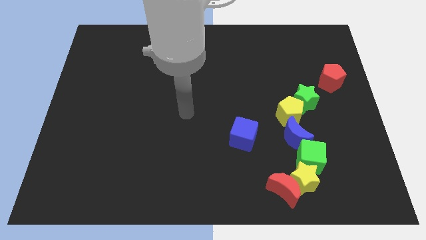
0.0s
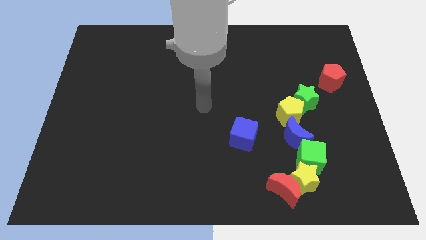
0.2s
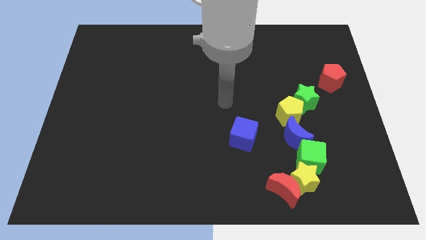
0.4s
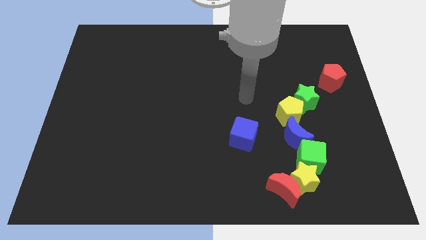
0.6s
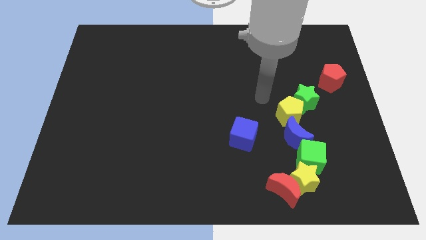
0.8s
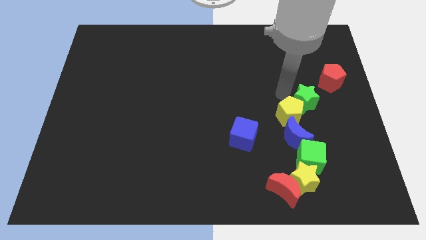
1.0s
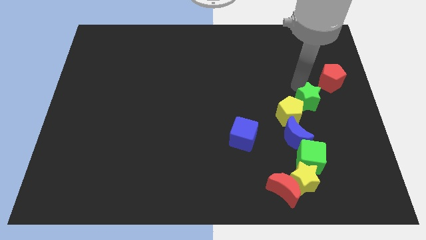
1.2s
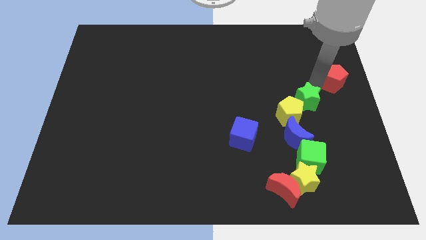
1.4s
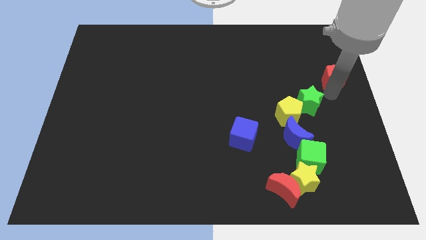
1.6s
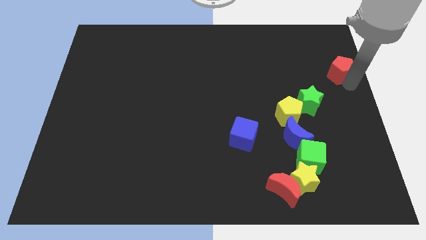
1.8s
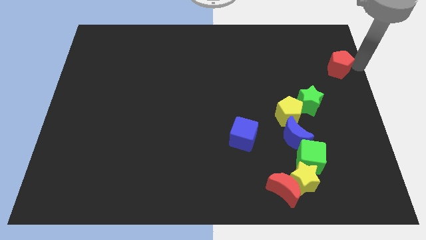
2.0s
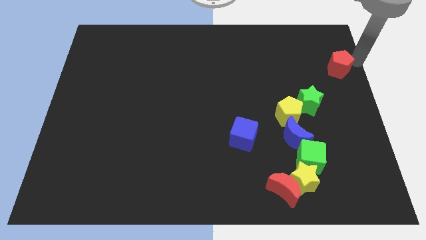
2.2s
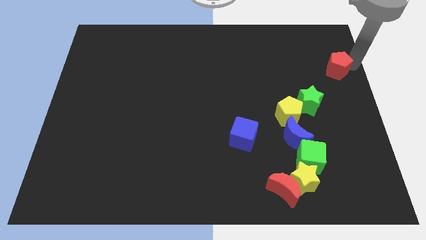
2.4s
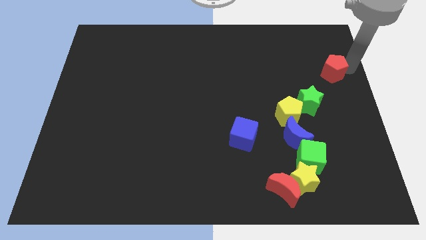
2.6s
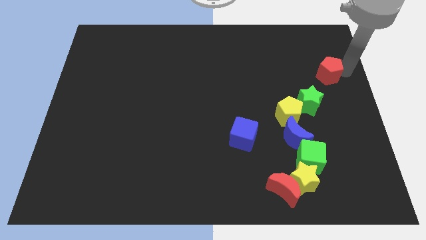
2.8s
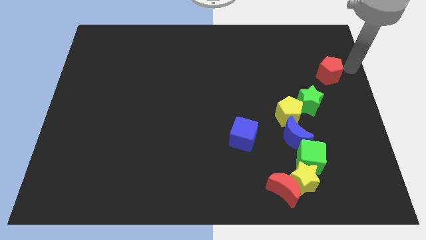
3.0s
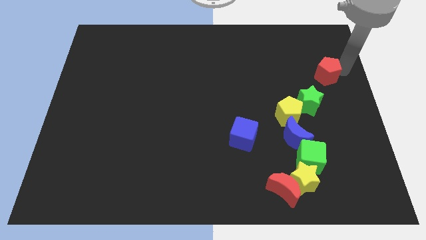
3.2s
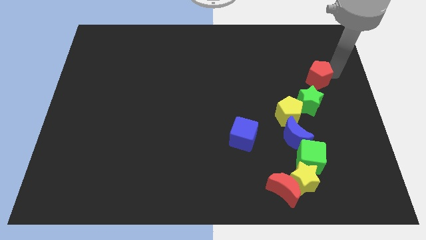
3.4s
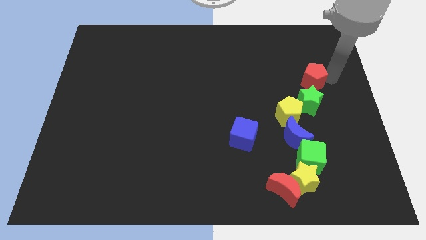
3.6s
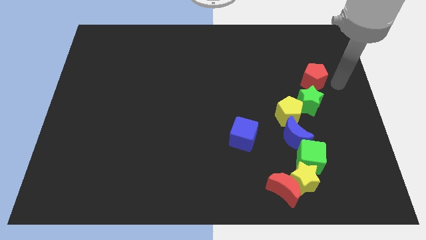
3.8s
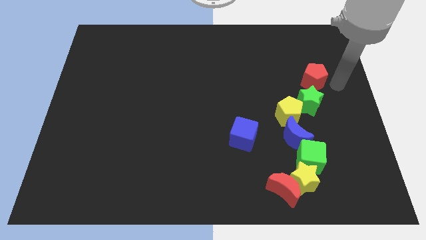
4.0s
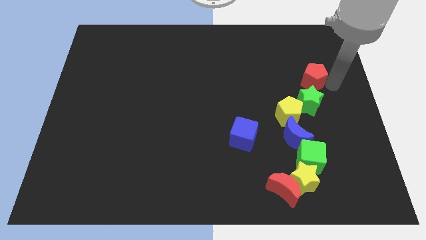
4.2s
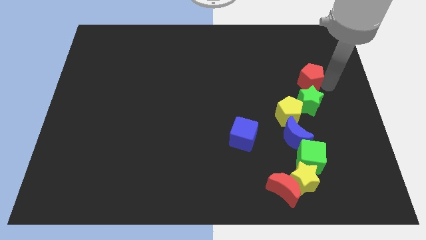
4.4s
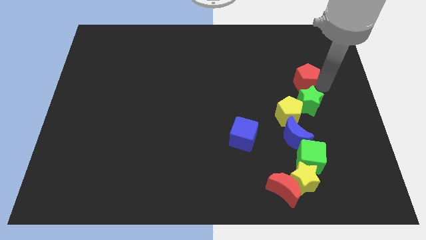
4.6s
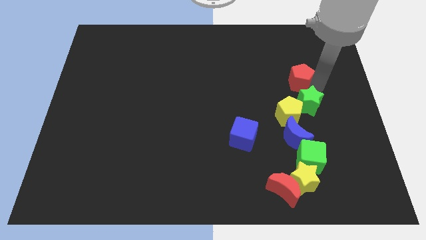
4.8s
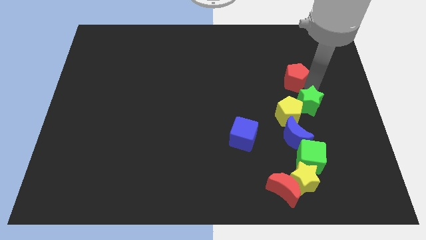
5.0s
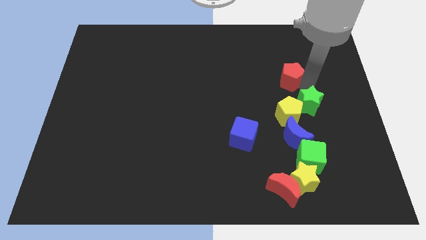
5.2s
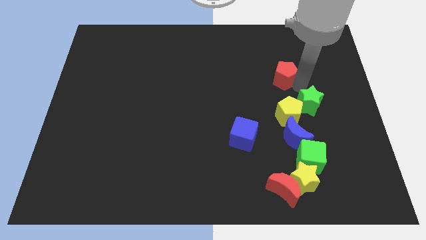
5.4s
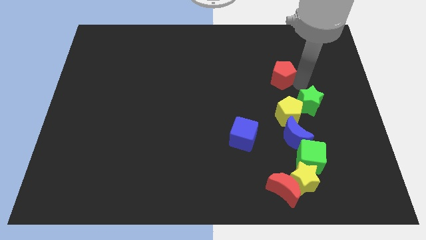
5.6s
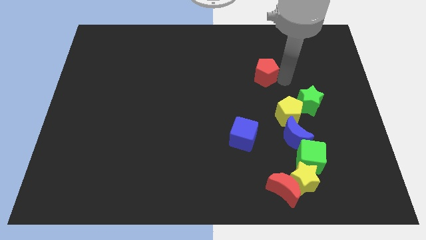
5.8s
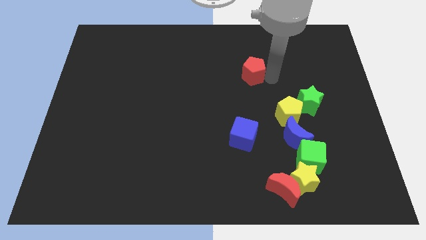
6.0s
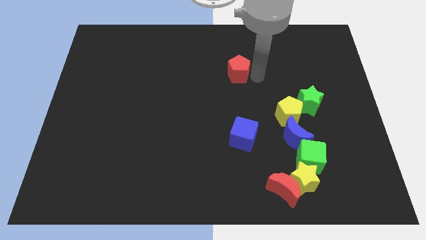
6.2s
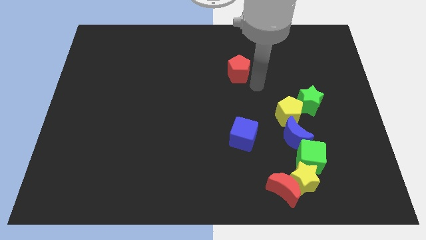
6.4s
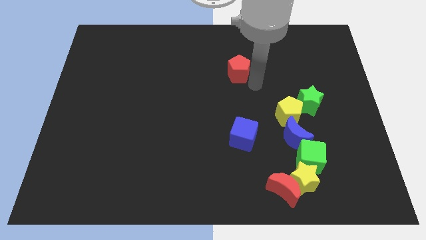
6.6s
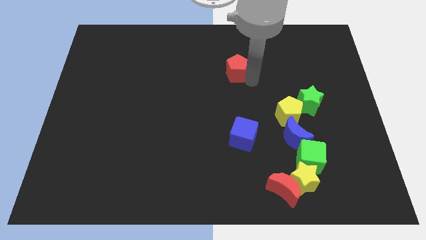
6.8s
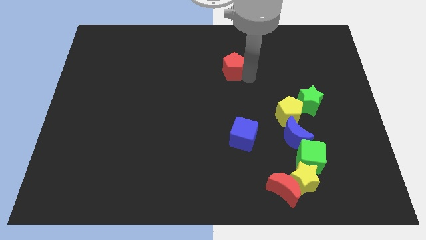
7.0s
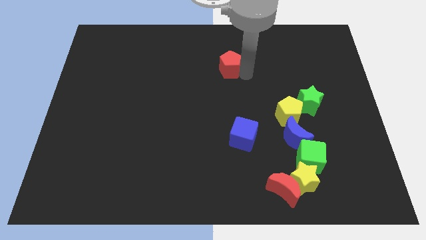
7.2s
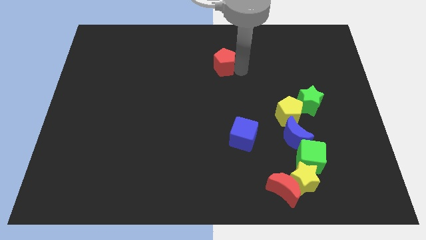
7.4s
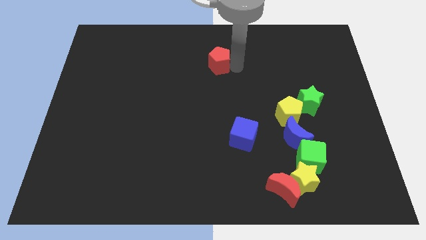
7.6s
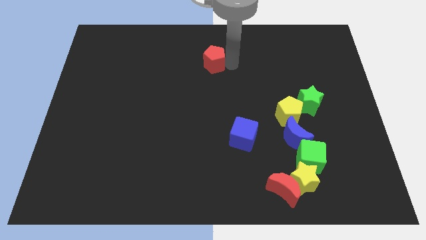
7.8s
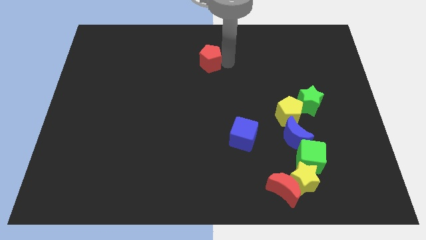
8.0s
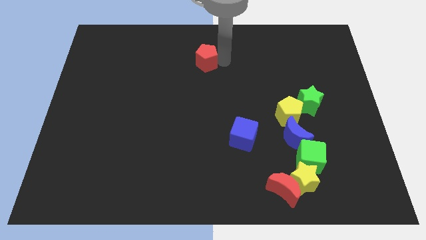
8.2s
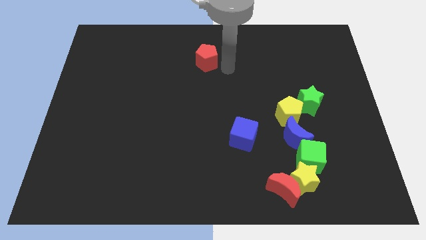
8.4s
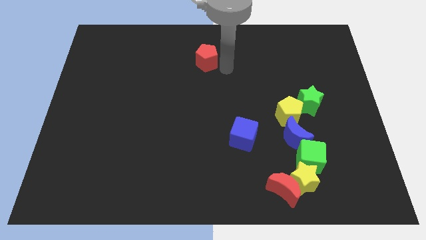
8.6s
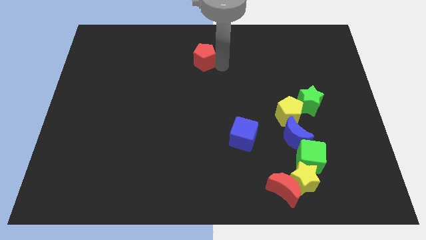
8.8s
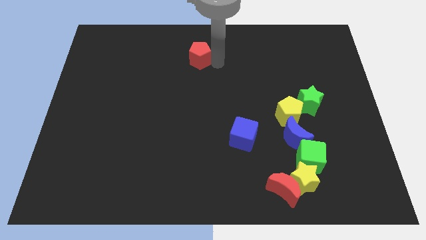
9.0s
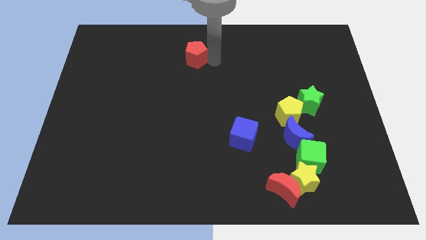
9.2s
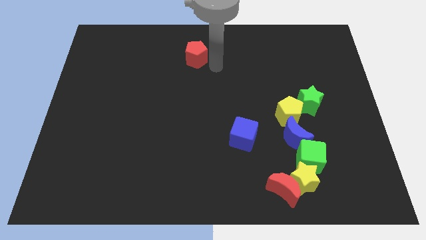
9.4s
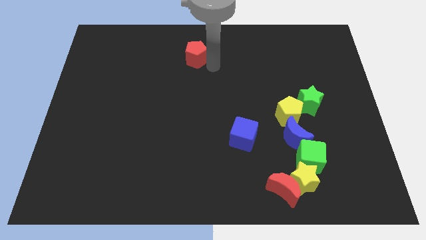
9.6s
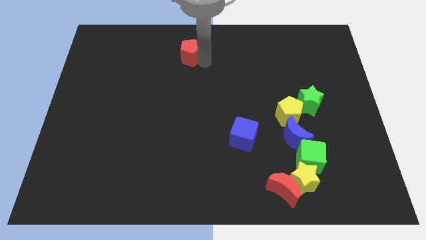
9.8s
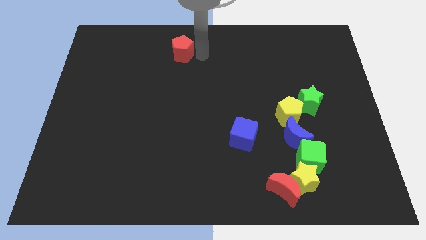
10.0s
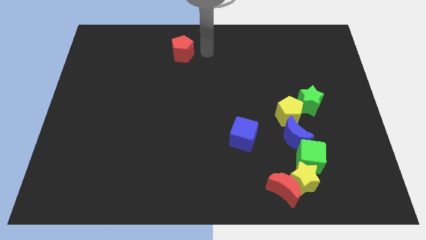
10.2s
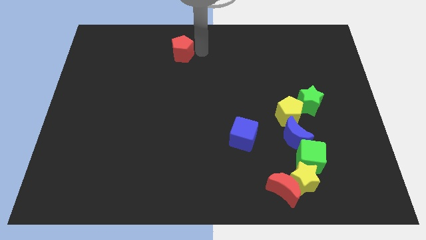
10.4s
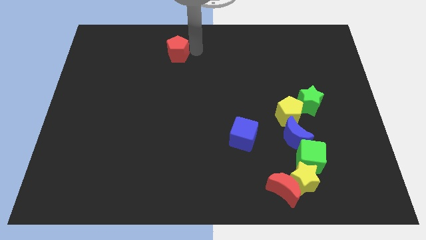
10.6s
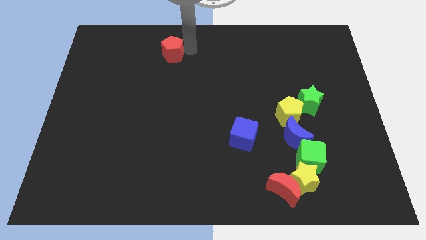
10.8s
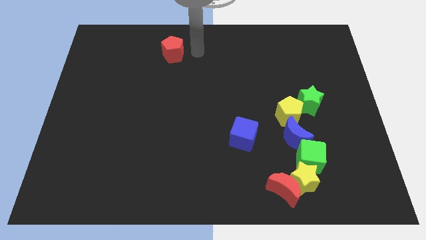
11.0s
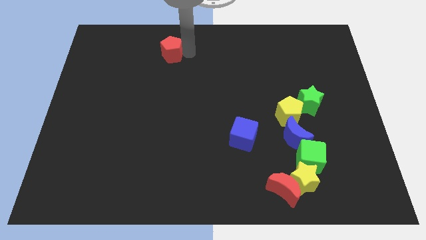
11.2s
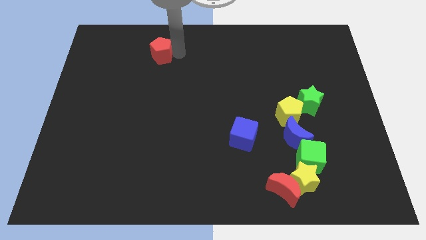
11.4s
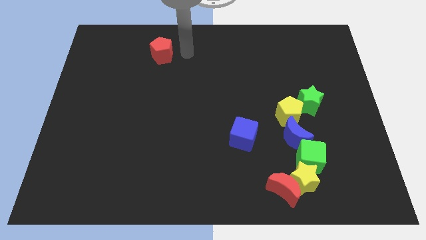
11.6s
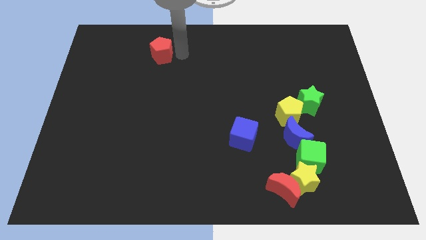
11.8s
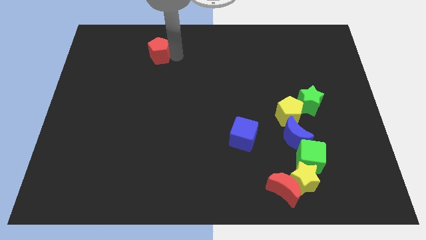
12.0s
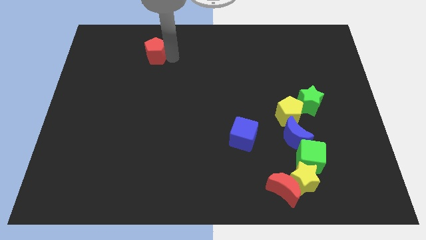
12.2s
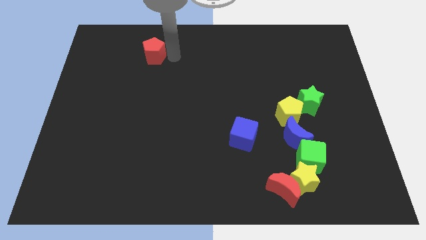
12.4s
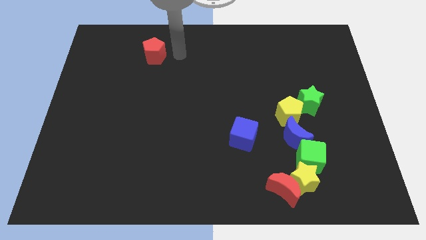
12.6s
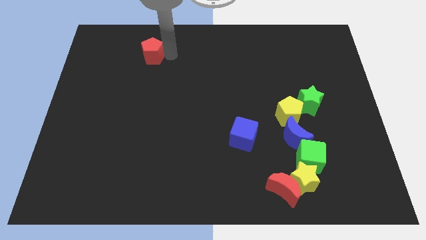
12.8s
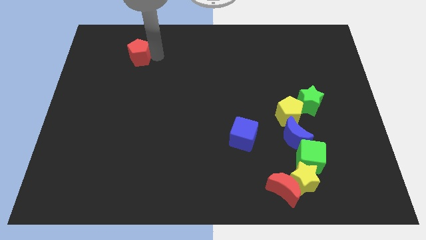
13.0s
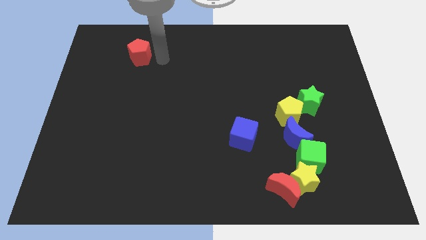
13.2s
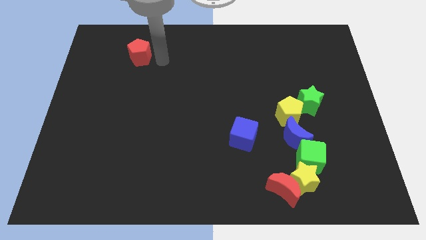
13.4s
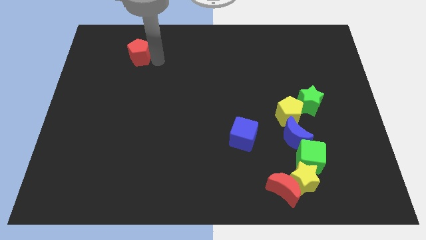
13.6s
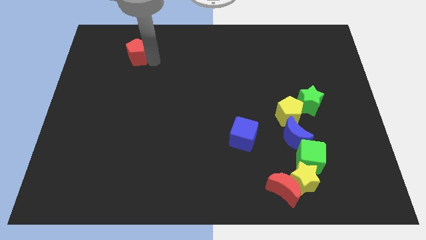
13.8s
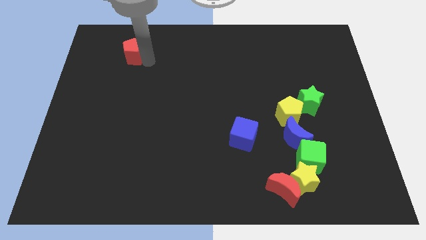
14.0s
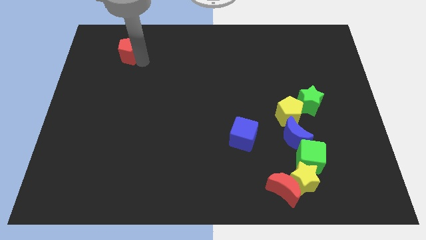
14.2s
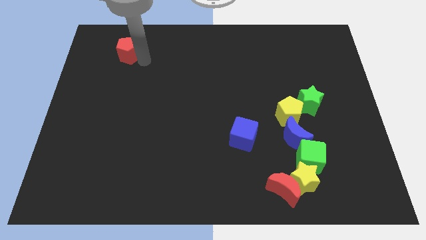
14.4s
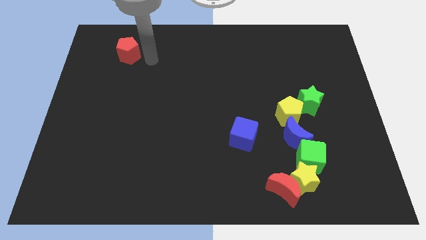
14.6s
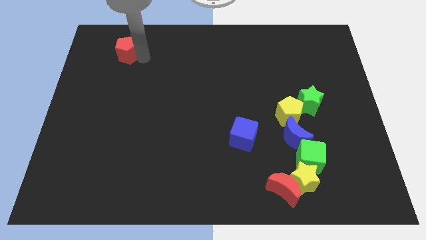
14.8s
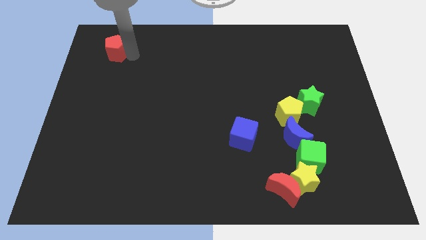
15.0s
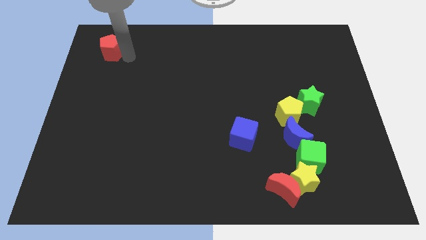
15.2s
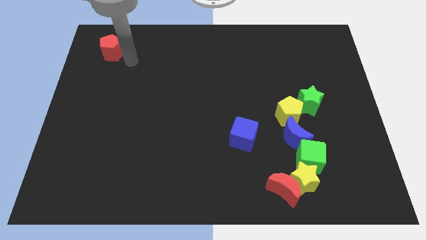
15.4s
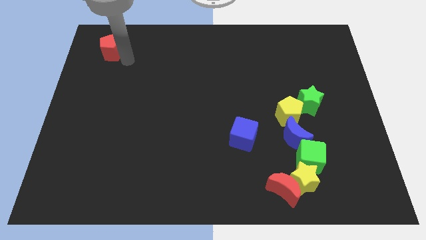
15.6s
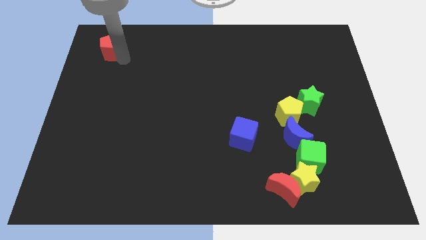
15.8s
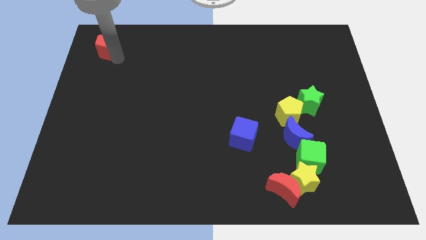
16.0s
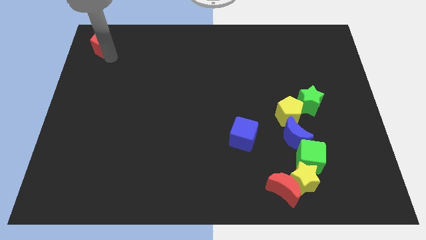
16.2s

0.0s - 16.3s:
slide the red pentagon to the top left corner
